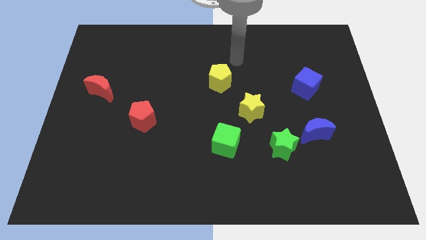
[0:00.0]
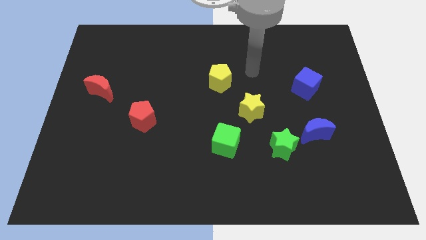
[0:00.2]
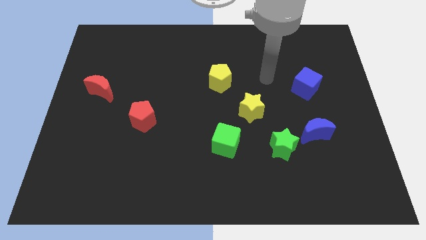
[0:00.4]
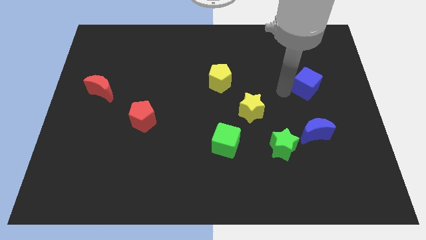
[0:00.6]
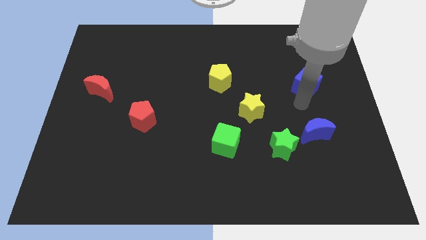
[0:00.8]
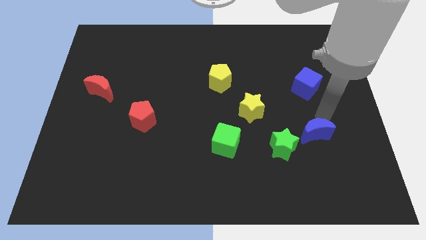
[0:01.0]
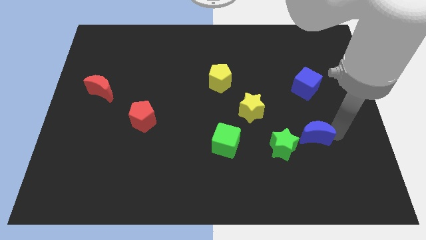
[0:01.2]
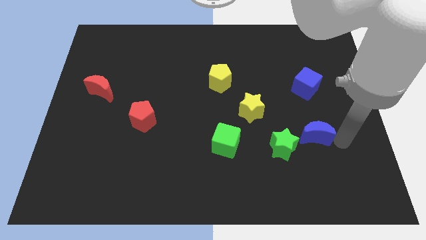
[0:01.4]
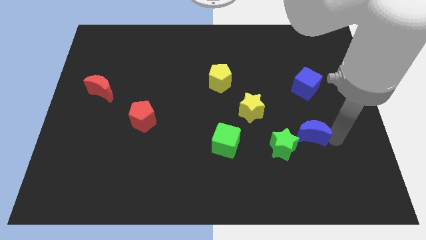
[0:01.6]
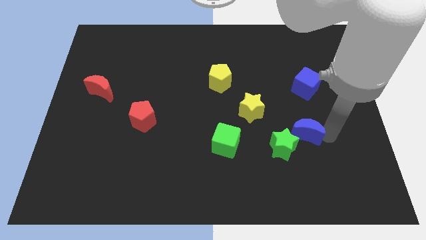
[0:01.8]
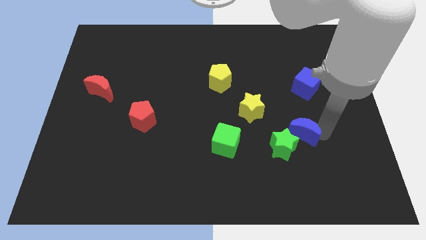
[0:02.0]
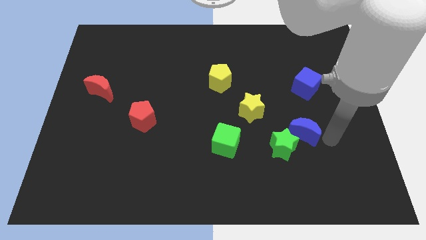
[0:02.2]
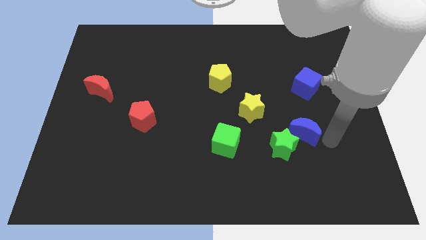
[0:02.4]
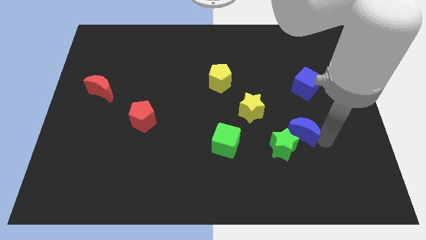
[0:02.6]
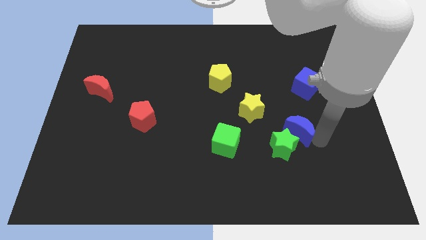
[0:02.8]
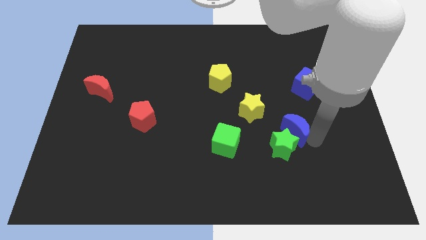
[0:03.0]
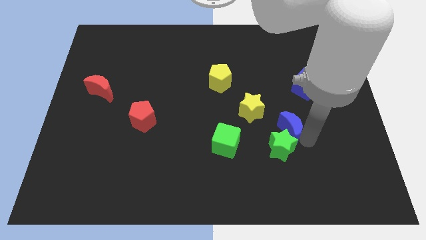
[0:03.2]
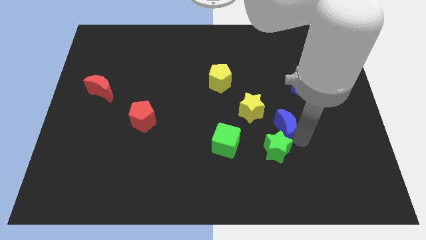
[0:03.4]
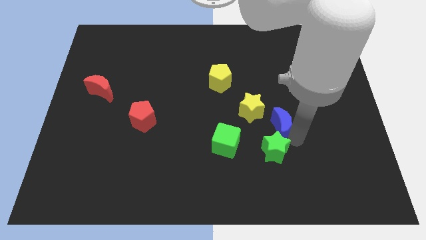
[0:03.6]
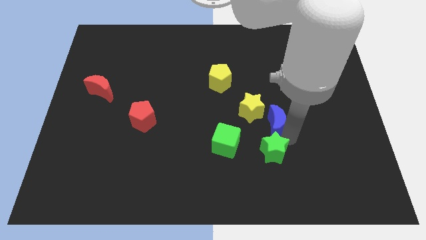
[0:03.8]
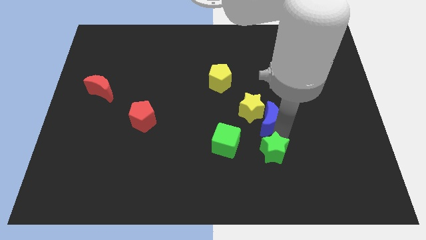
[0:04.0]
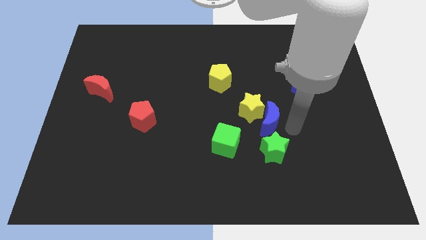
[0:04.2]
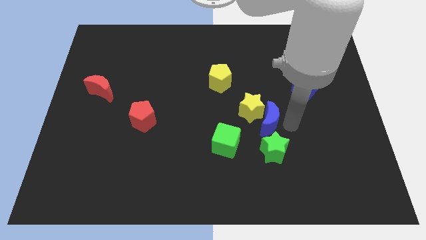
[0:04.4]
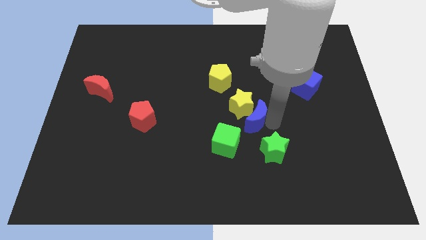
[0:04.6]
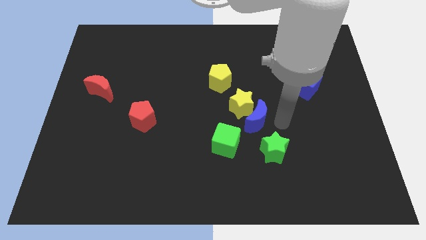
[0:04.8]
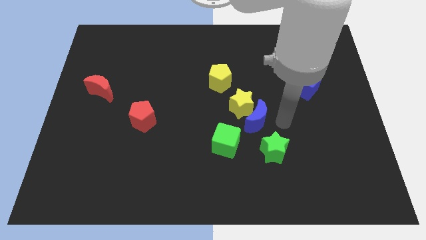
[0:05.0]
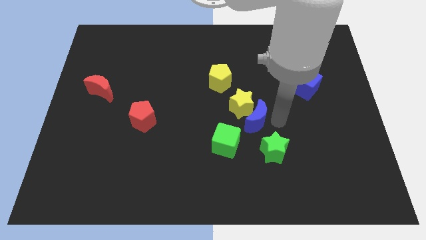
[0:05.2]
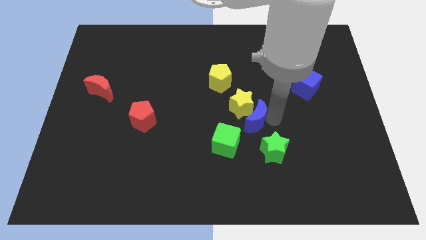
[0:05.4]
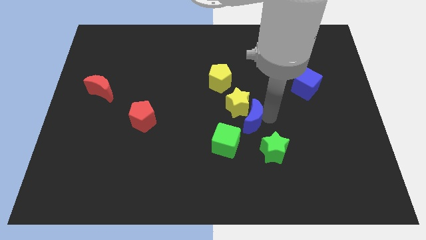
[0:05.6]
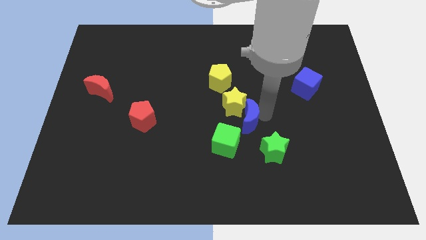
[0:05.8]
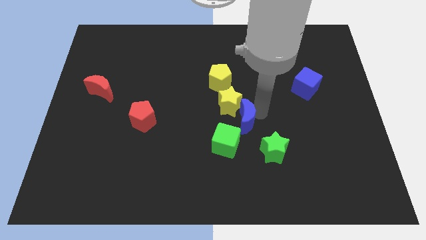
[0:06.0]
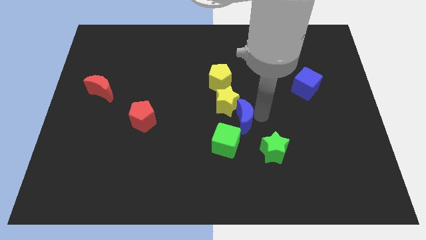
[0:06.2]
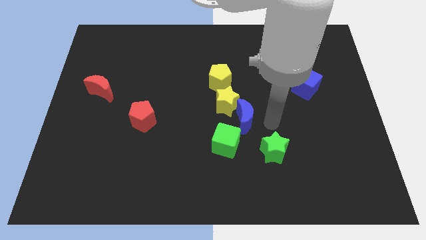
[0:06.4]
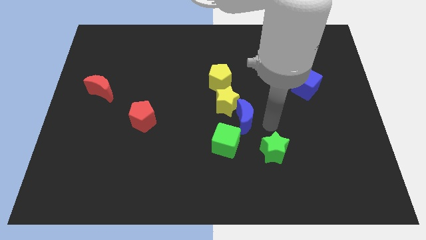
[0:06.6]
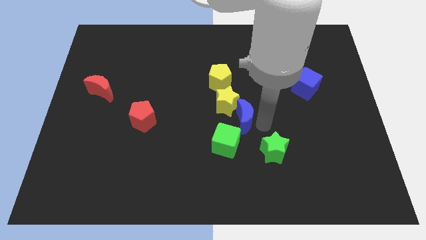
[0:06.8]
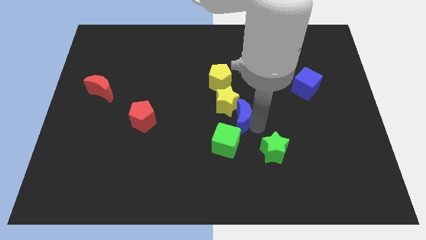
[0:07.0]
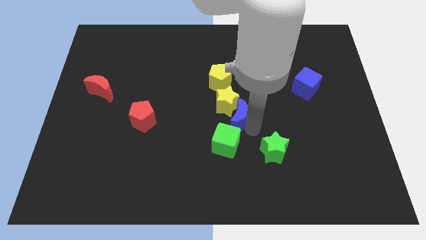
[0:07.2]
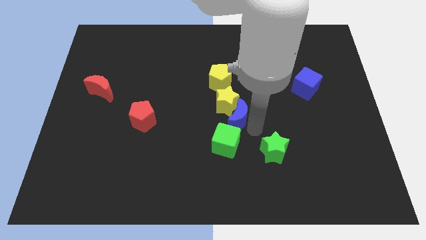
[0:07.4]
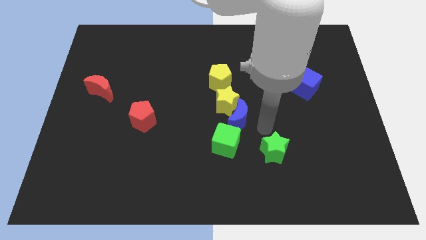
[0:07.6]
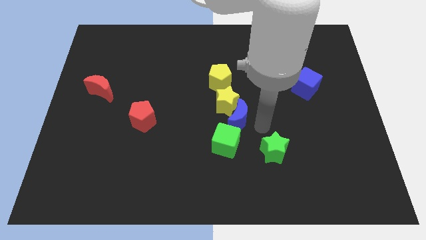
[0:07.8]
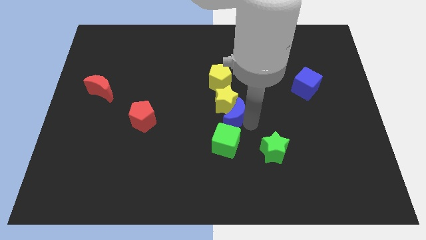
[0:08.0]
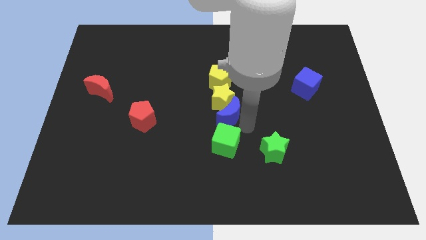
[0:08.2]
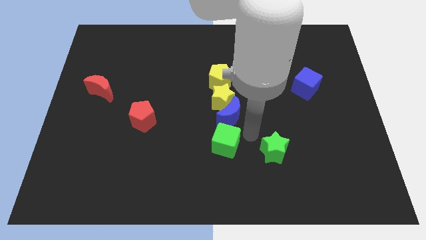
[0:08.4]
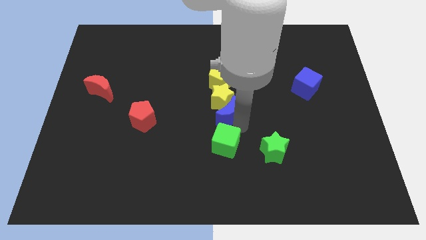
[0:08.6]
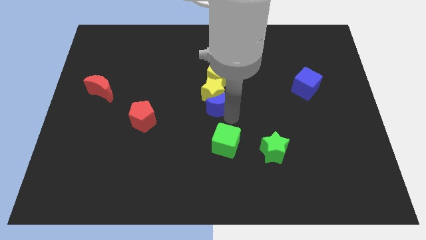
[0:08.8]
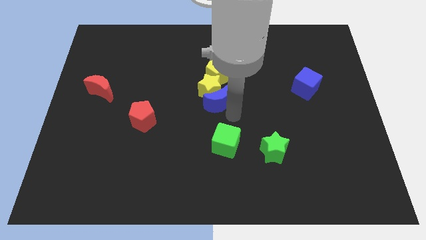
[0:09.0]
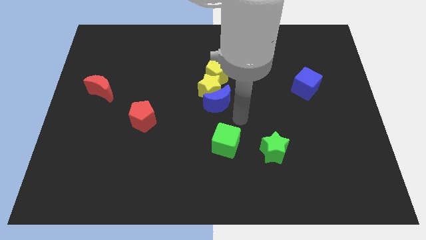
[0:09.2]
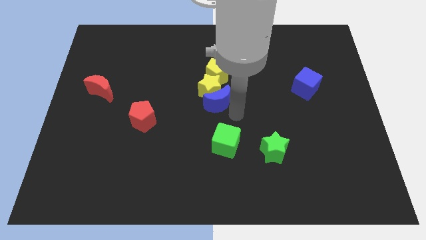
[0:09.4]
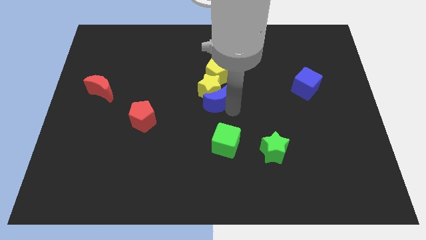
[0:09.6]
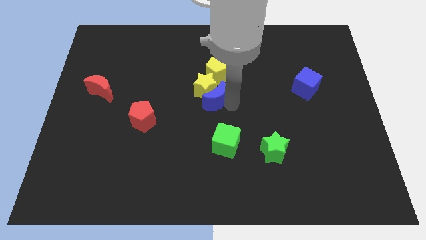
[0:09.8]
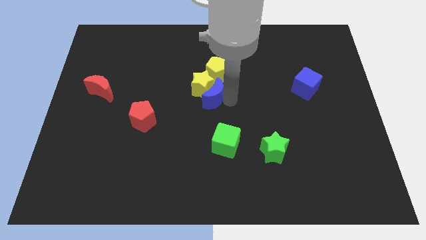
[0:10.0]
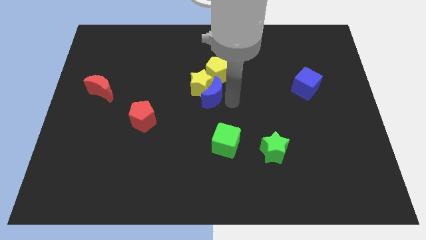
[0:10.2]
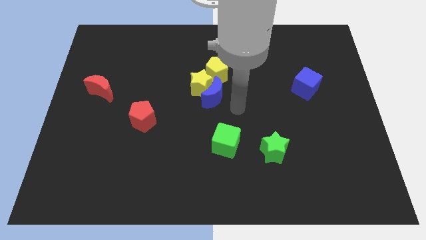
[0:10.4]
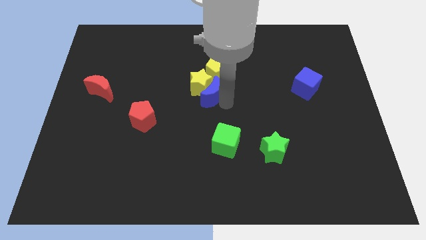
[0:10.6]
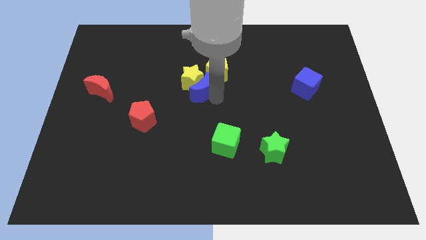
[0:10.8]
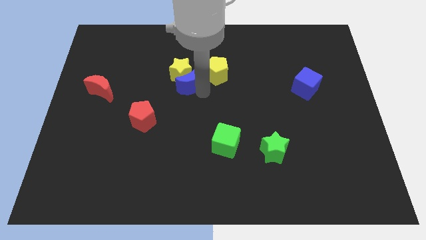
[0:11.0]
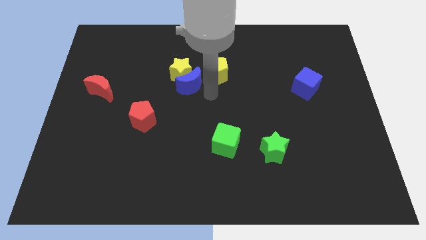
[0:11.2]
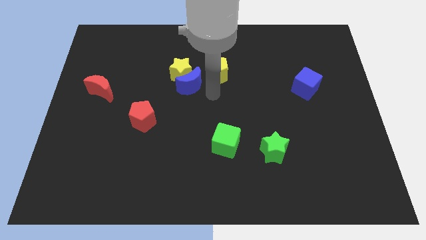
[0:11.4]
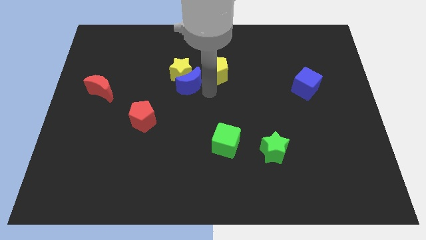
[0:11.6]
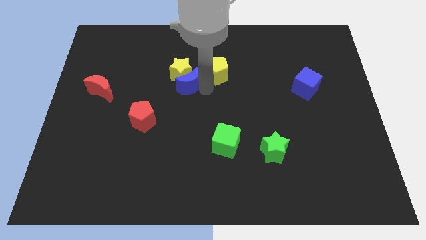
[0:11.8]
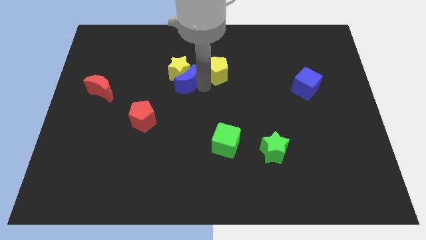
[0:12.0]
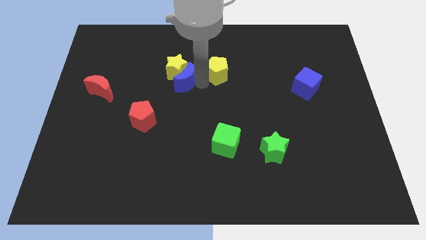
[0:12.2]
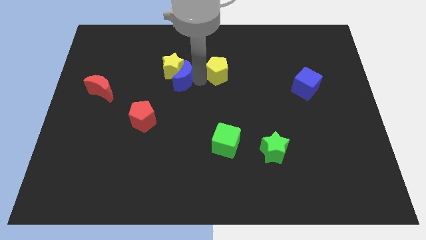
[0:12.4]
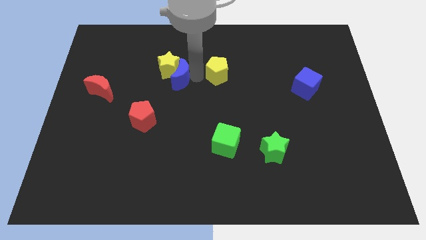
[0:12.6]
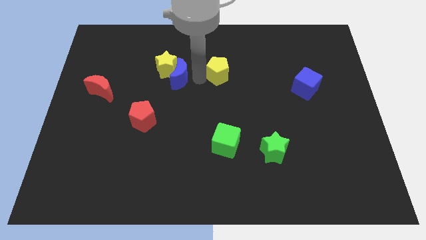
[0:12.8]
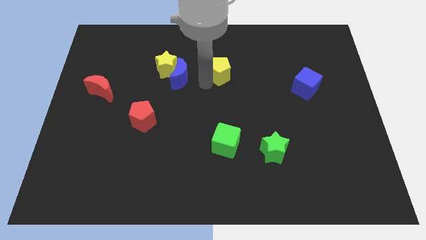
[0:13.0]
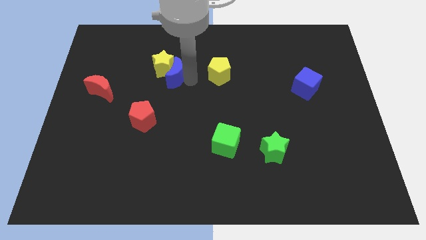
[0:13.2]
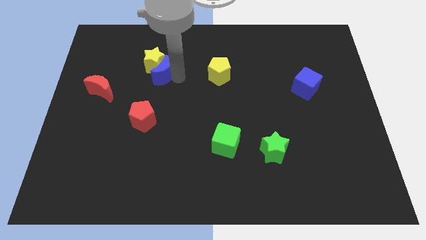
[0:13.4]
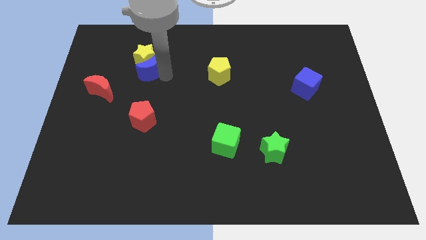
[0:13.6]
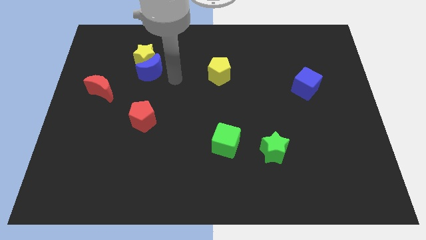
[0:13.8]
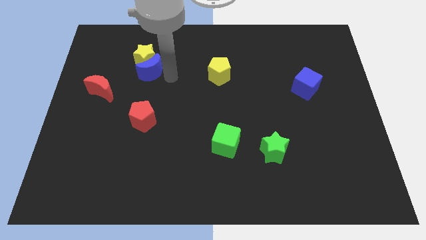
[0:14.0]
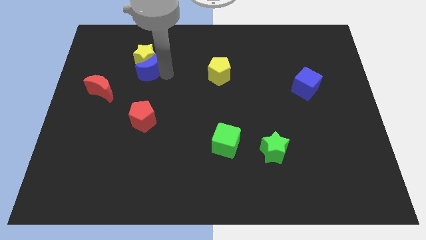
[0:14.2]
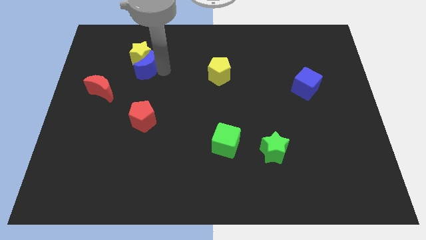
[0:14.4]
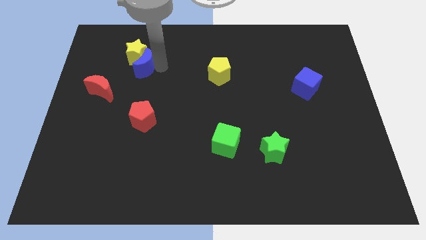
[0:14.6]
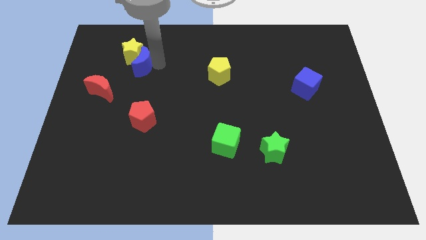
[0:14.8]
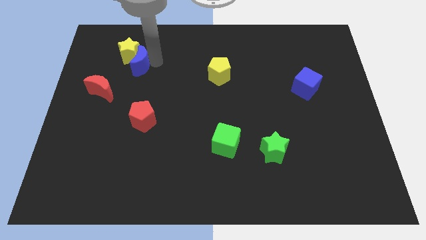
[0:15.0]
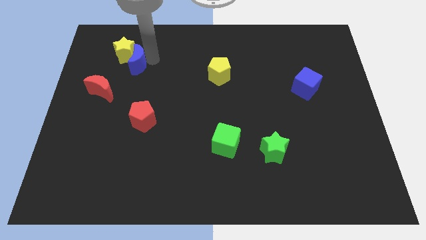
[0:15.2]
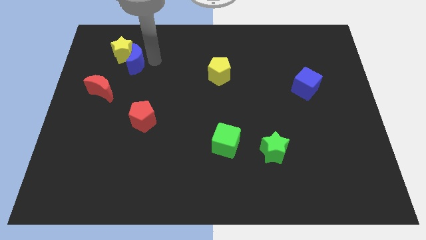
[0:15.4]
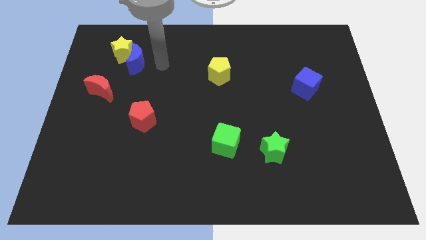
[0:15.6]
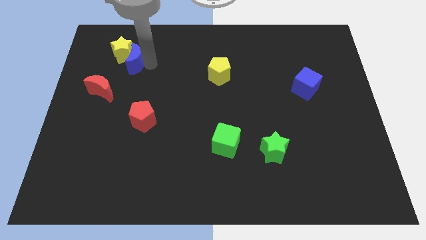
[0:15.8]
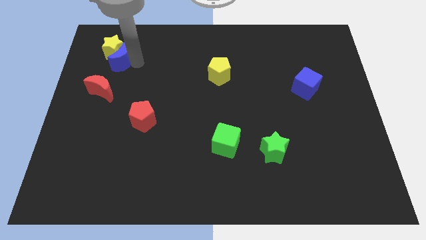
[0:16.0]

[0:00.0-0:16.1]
put the blue moon to the top of the red moon
